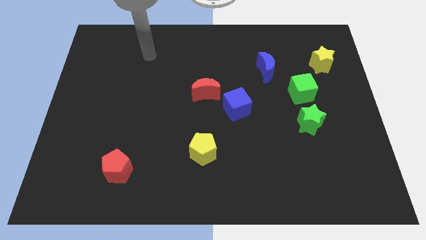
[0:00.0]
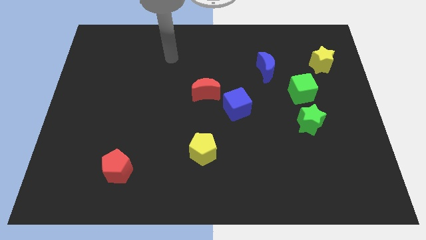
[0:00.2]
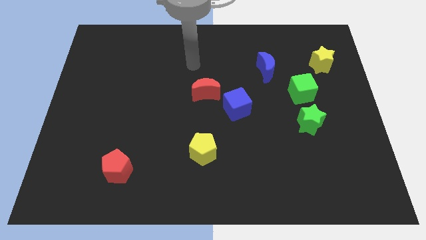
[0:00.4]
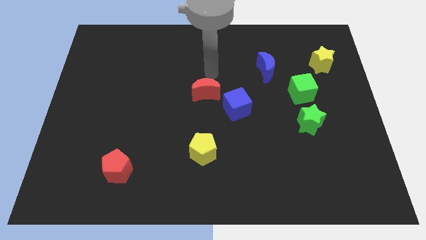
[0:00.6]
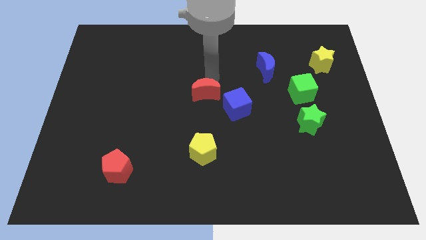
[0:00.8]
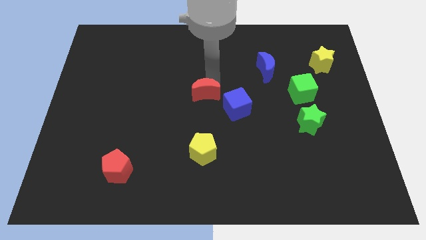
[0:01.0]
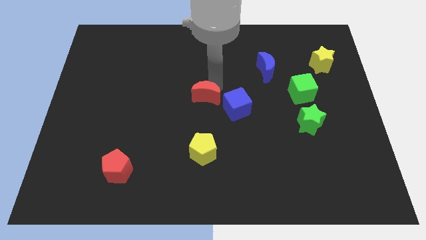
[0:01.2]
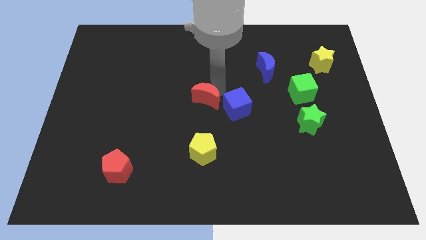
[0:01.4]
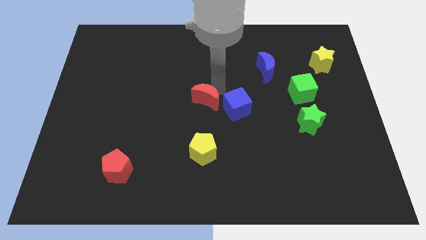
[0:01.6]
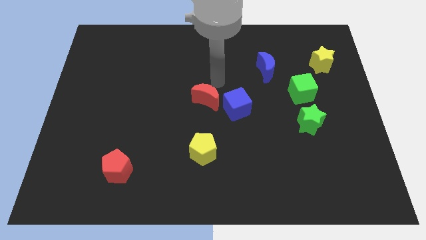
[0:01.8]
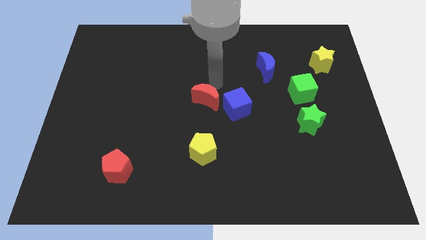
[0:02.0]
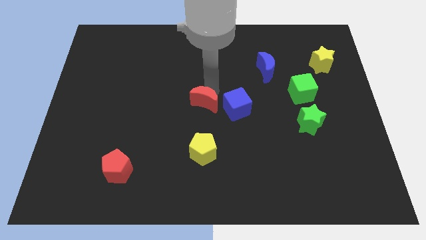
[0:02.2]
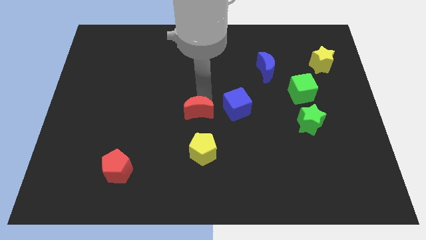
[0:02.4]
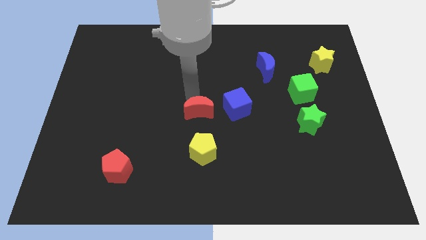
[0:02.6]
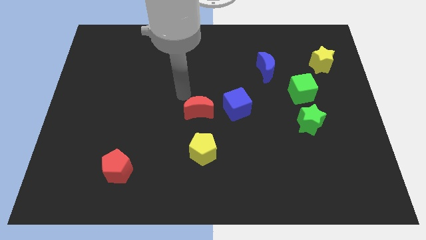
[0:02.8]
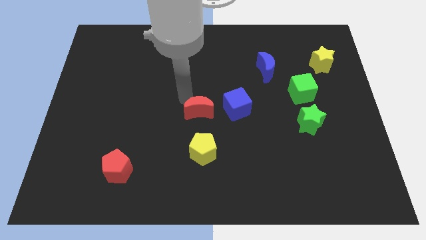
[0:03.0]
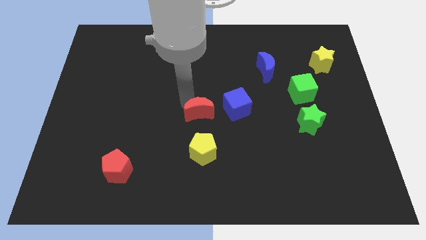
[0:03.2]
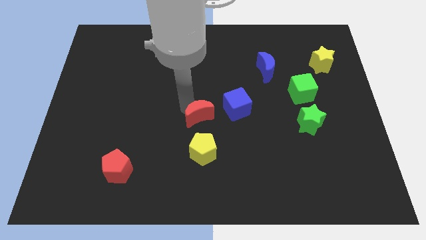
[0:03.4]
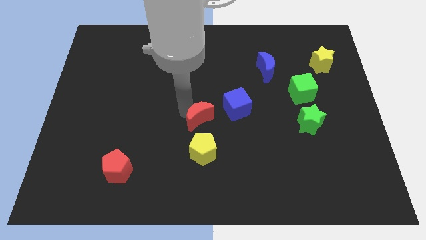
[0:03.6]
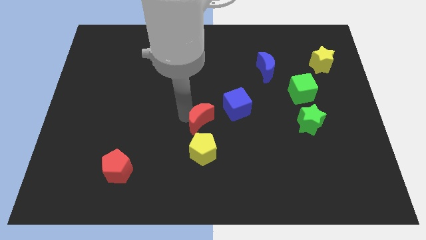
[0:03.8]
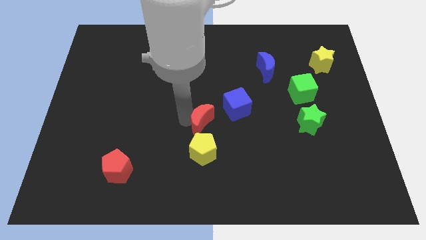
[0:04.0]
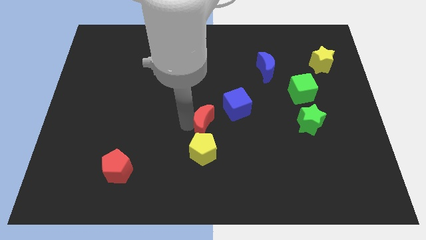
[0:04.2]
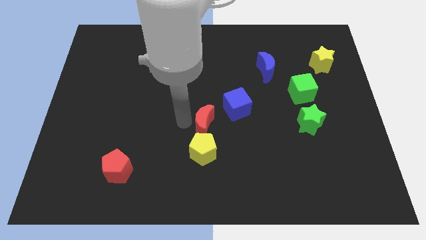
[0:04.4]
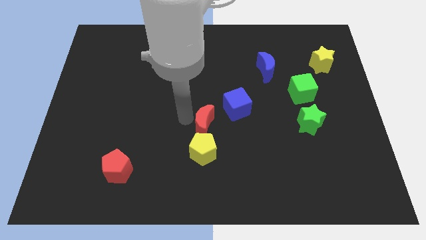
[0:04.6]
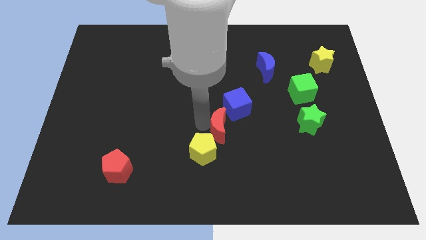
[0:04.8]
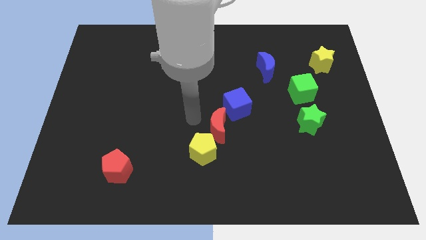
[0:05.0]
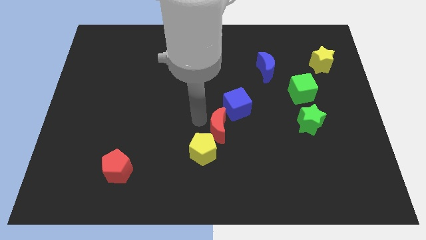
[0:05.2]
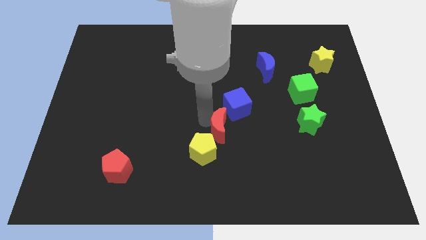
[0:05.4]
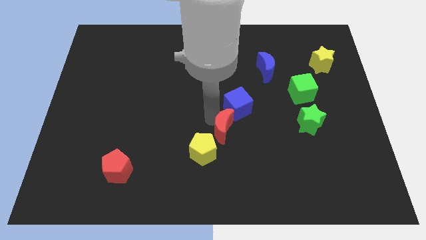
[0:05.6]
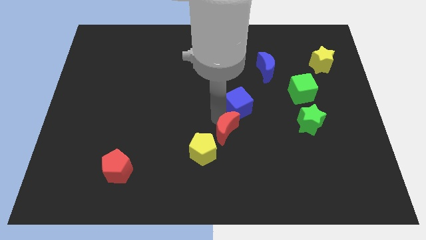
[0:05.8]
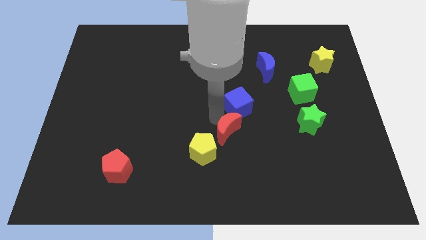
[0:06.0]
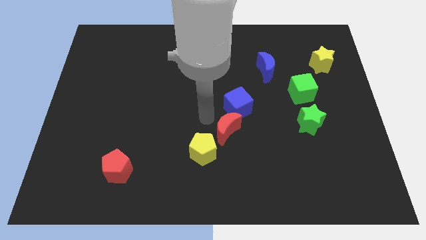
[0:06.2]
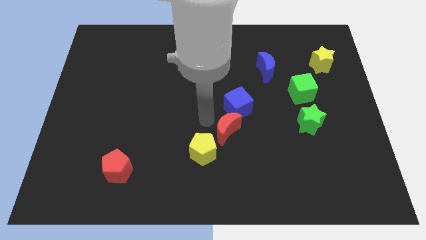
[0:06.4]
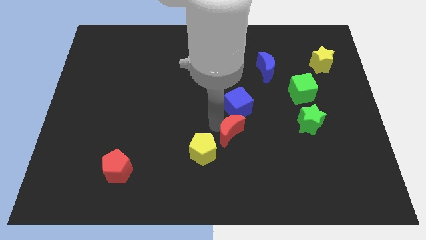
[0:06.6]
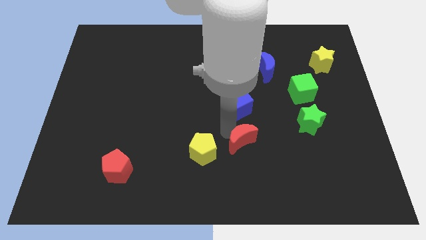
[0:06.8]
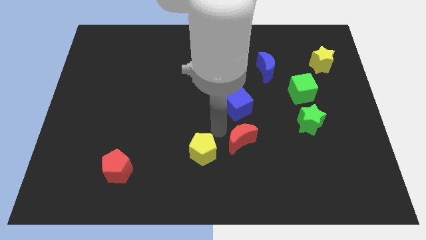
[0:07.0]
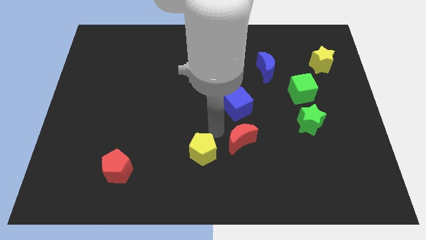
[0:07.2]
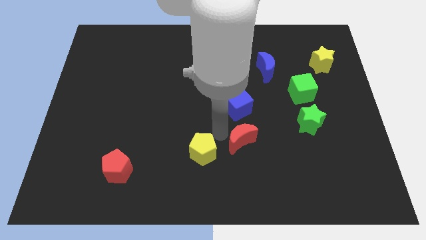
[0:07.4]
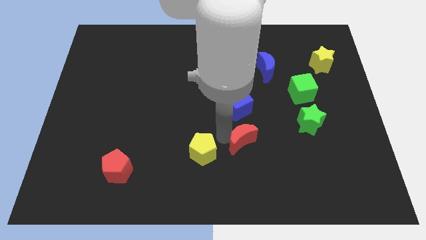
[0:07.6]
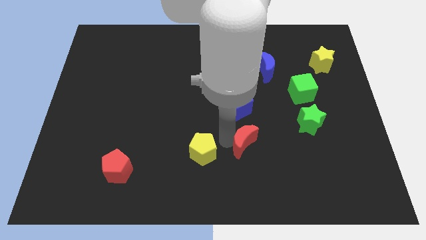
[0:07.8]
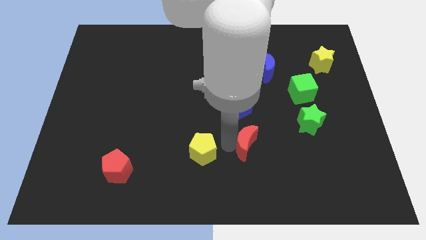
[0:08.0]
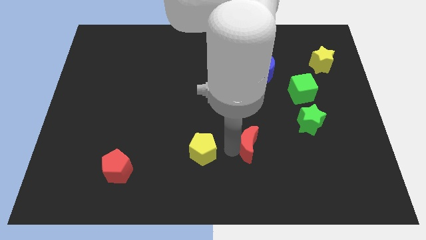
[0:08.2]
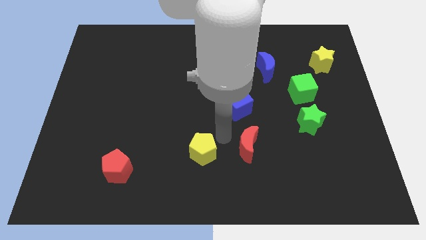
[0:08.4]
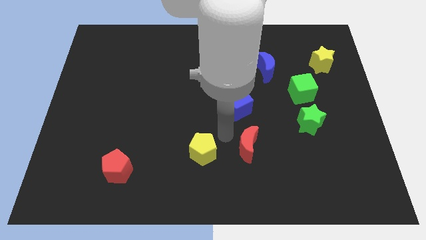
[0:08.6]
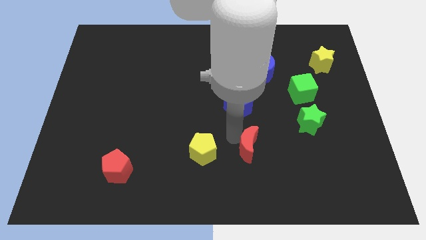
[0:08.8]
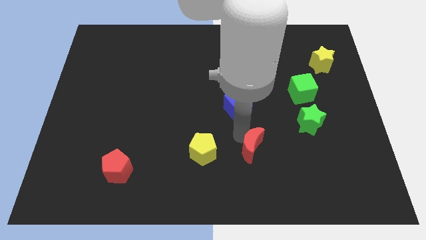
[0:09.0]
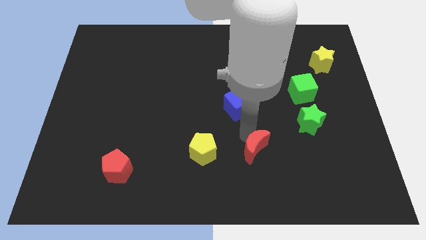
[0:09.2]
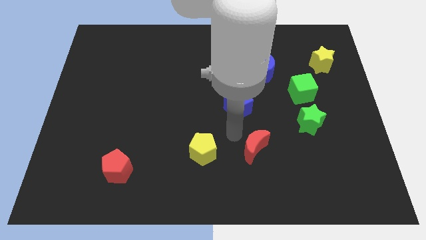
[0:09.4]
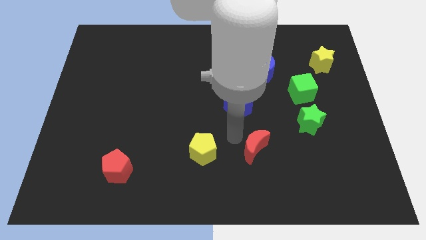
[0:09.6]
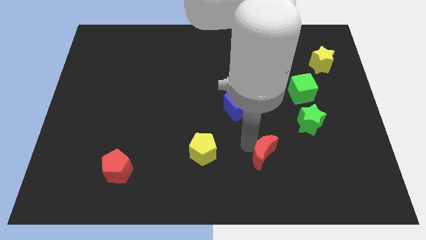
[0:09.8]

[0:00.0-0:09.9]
push the red moon downwards and then to the right

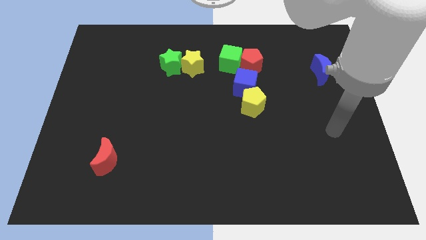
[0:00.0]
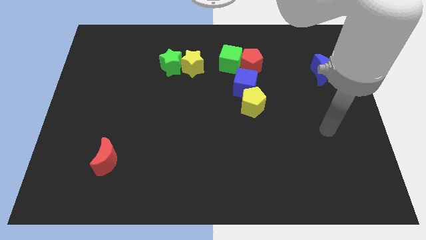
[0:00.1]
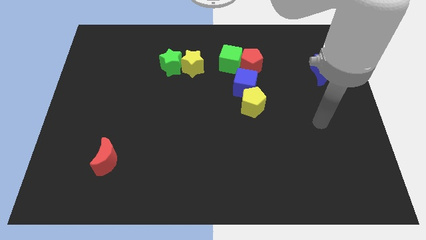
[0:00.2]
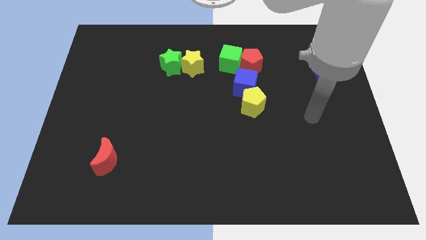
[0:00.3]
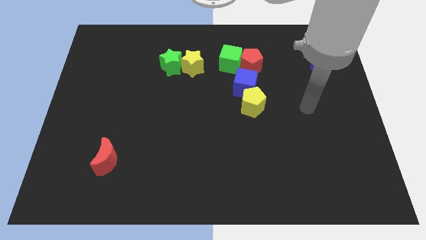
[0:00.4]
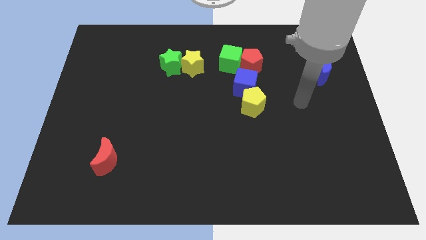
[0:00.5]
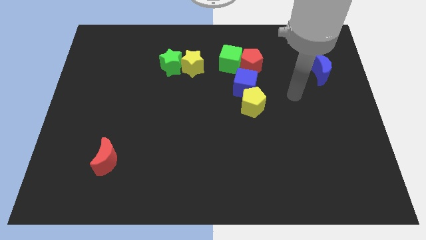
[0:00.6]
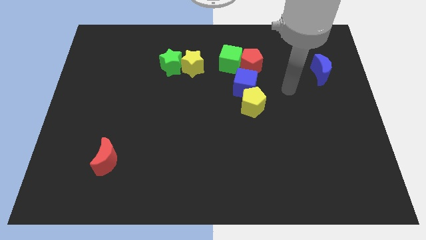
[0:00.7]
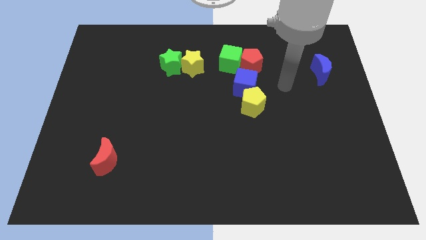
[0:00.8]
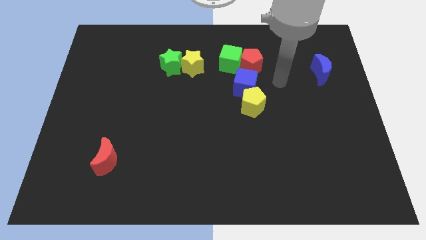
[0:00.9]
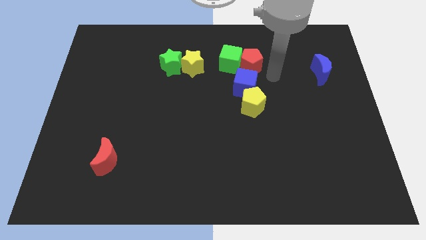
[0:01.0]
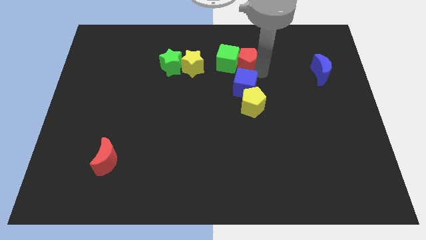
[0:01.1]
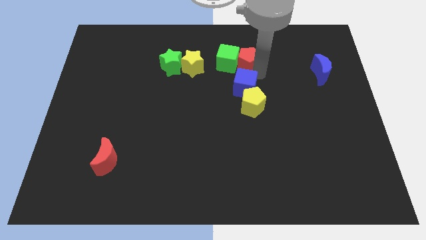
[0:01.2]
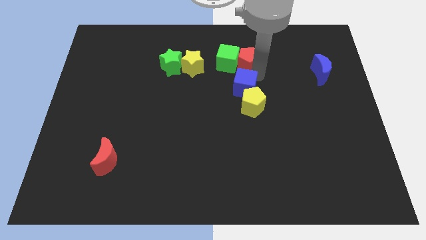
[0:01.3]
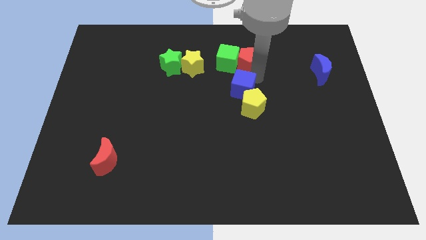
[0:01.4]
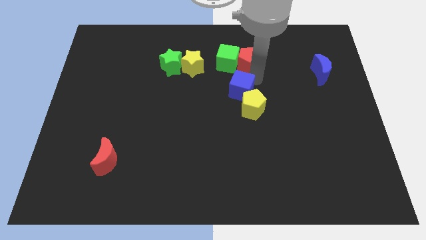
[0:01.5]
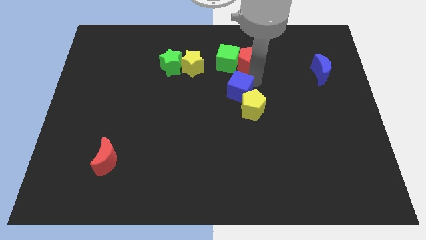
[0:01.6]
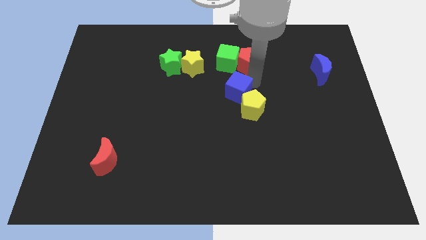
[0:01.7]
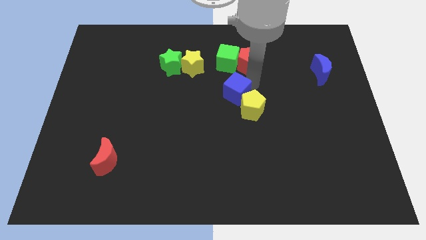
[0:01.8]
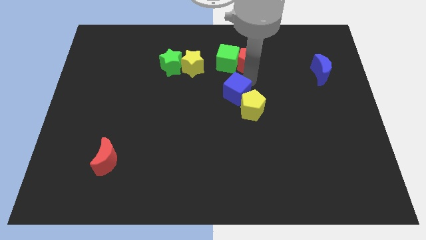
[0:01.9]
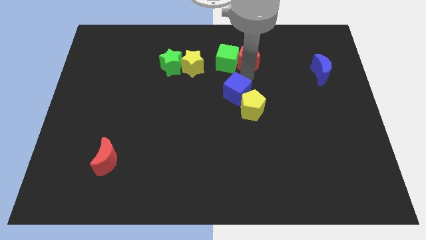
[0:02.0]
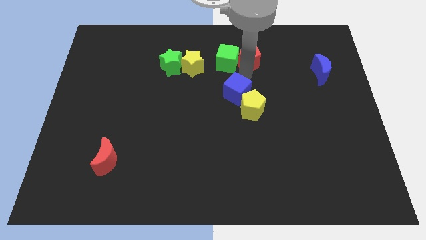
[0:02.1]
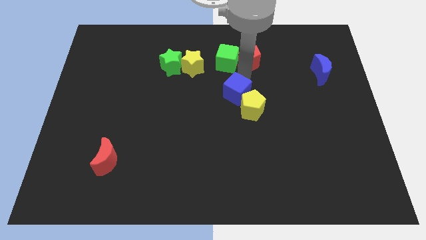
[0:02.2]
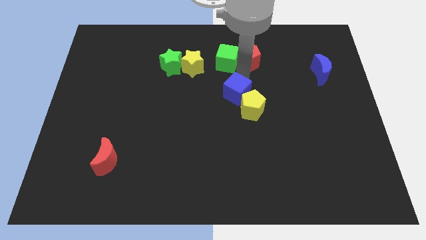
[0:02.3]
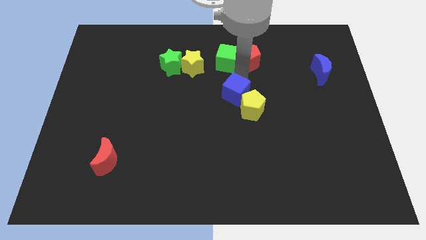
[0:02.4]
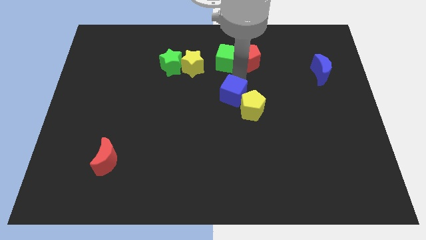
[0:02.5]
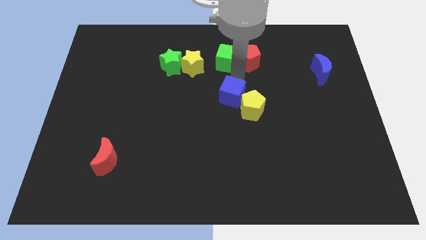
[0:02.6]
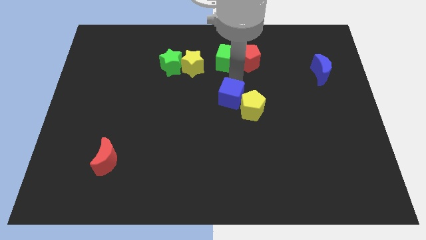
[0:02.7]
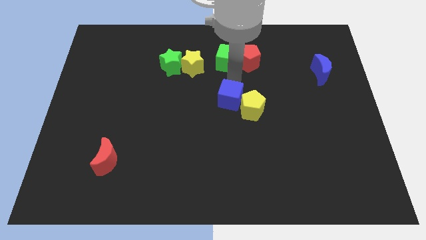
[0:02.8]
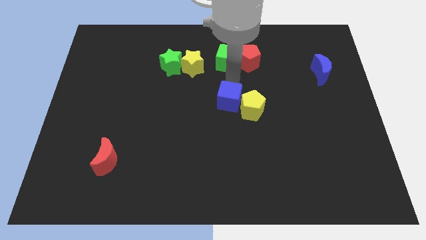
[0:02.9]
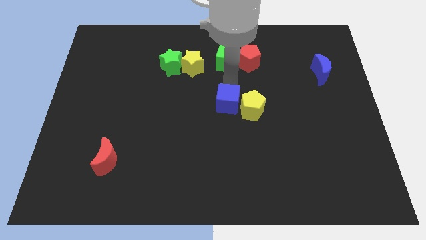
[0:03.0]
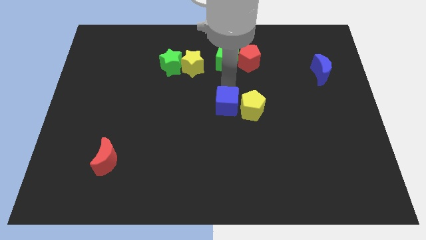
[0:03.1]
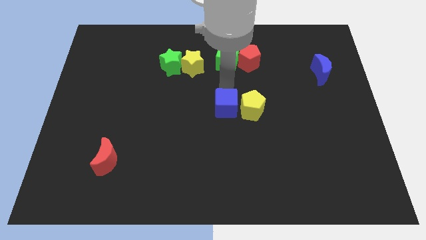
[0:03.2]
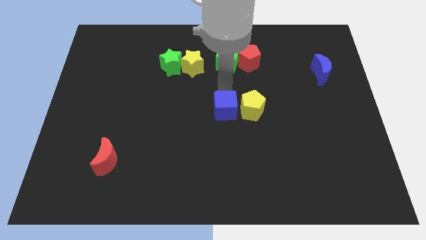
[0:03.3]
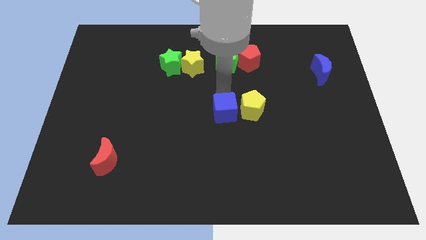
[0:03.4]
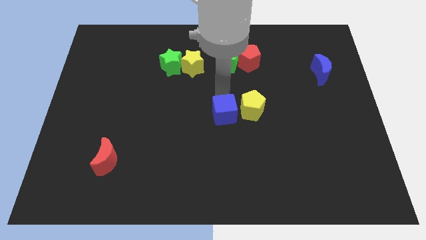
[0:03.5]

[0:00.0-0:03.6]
slide the blue cube a little down
